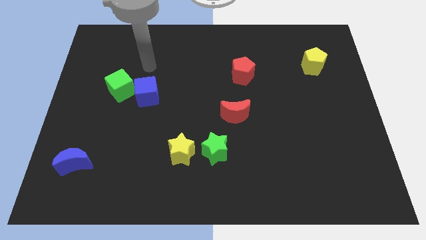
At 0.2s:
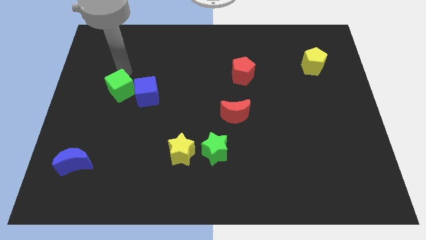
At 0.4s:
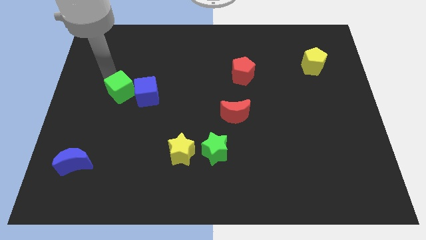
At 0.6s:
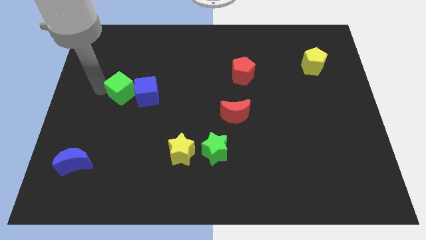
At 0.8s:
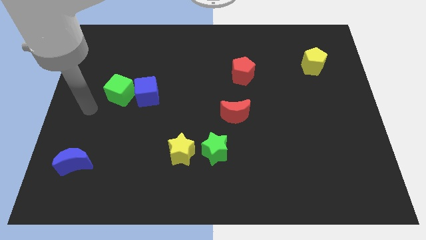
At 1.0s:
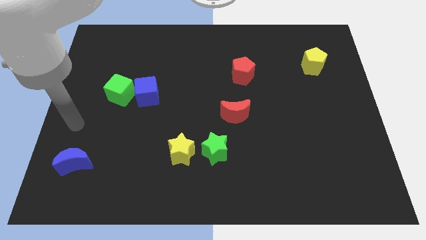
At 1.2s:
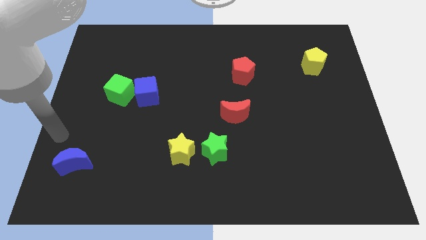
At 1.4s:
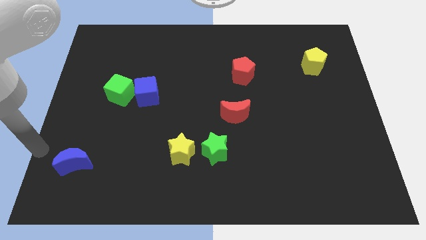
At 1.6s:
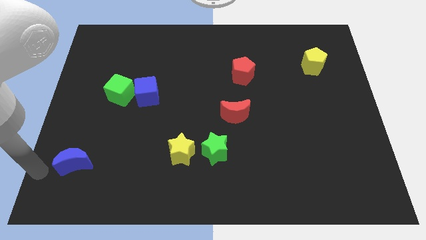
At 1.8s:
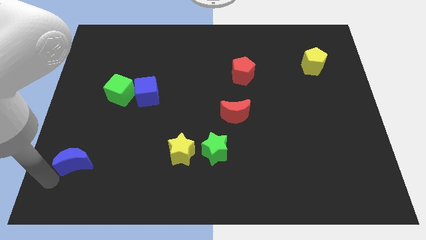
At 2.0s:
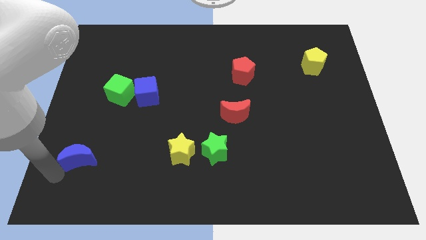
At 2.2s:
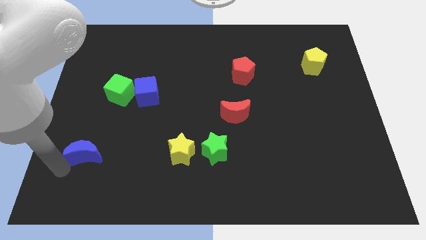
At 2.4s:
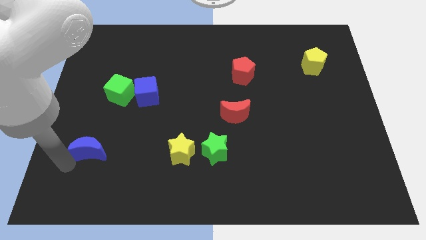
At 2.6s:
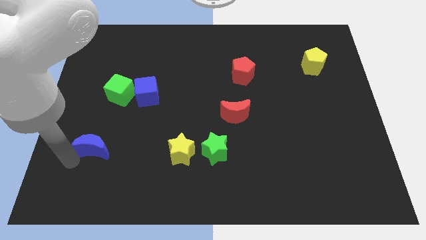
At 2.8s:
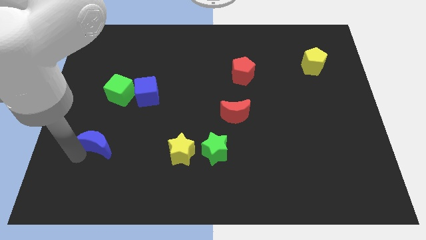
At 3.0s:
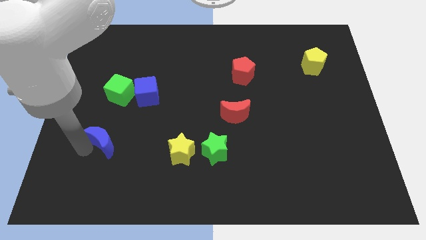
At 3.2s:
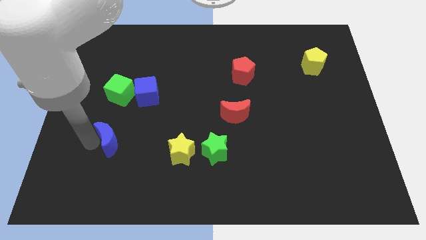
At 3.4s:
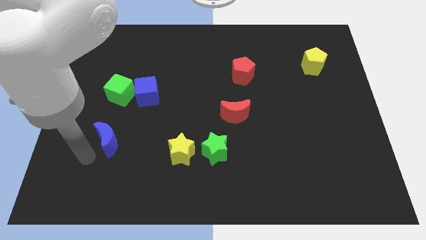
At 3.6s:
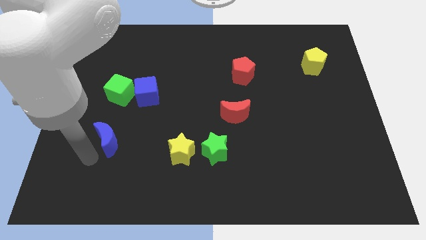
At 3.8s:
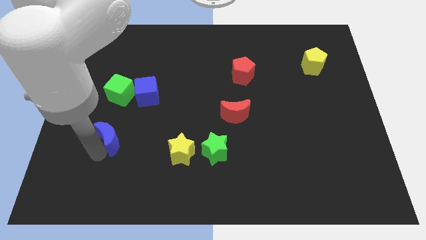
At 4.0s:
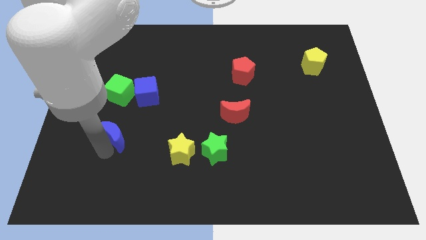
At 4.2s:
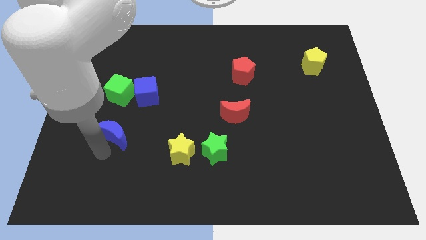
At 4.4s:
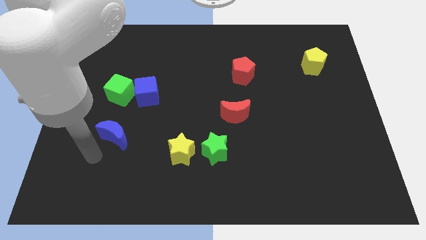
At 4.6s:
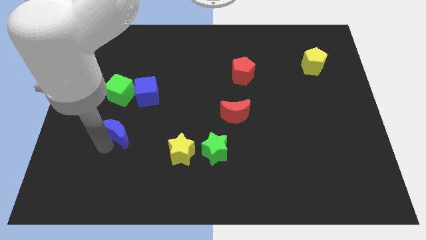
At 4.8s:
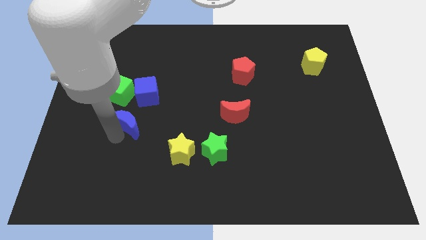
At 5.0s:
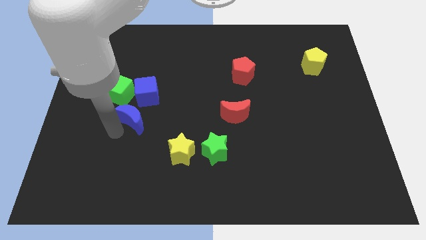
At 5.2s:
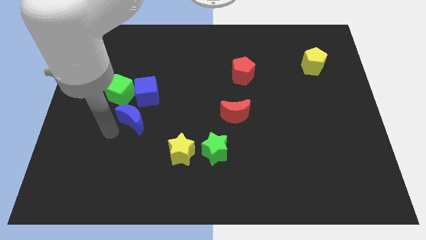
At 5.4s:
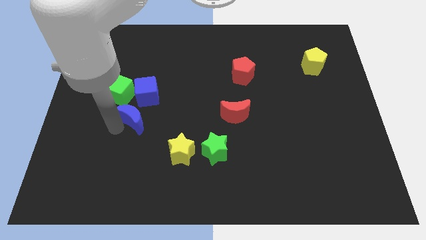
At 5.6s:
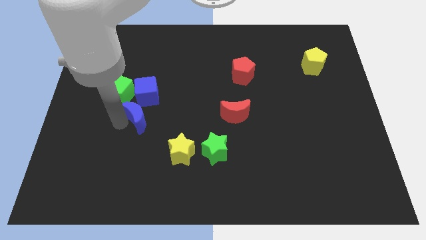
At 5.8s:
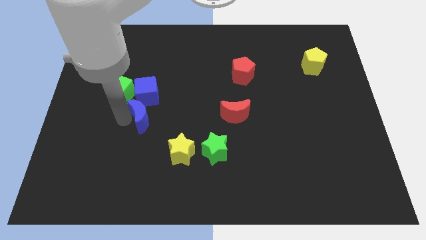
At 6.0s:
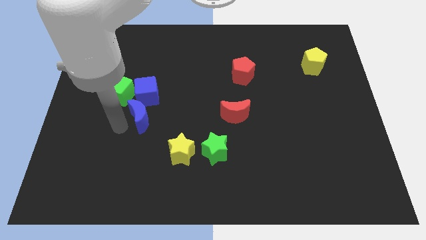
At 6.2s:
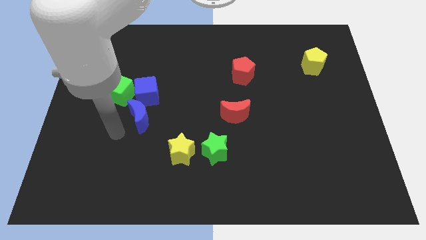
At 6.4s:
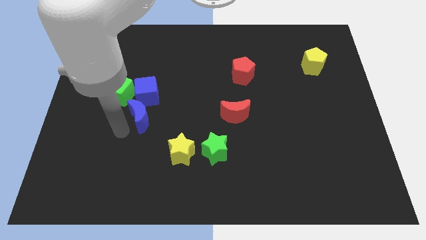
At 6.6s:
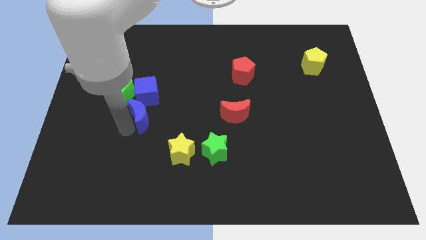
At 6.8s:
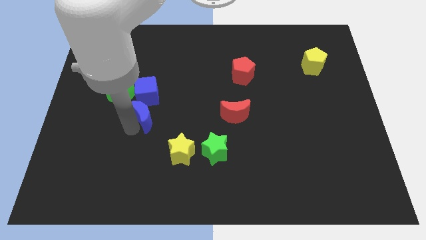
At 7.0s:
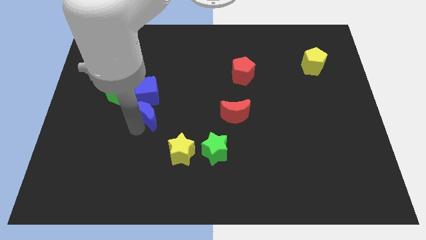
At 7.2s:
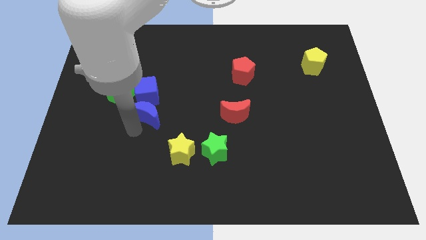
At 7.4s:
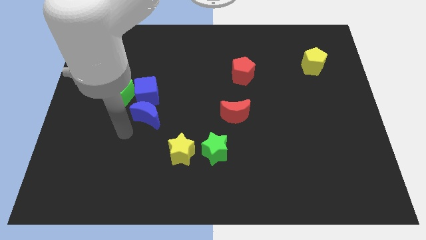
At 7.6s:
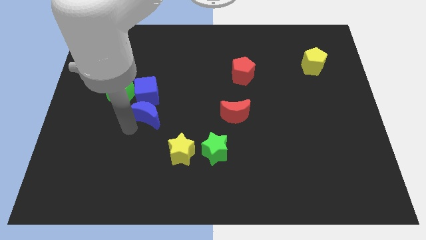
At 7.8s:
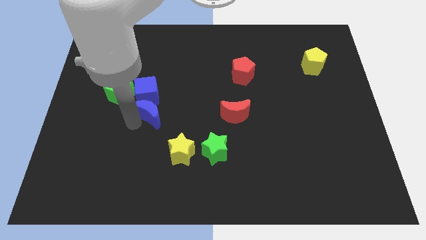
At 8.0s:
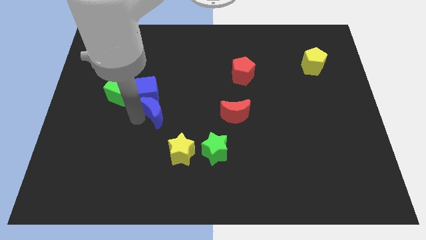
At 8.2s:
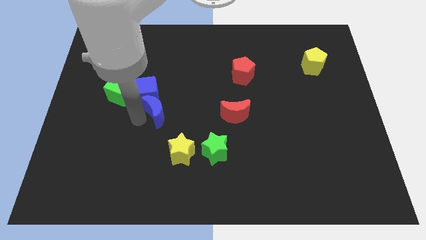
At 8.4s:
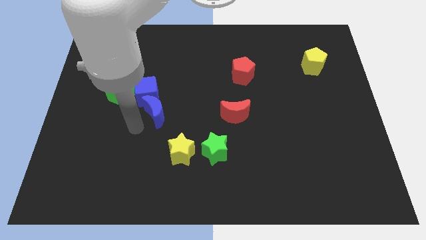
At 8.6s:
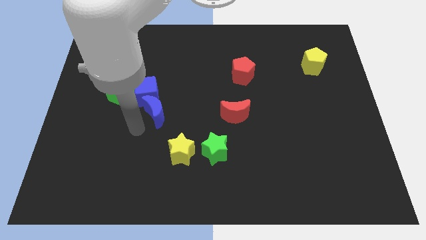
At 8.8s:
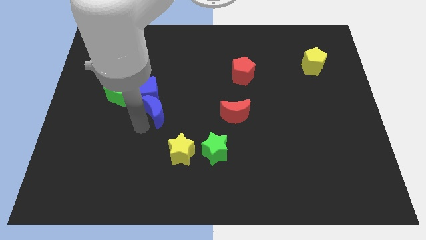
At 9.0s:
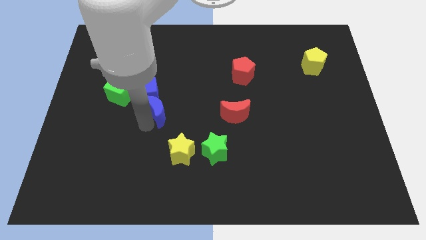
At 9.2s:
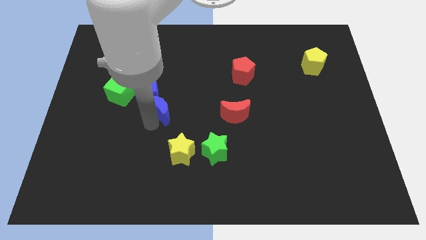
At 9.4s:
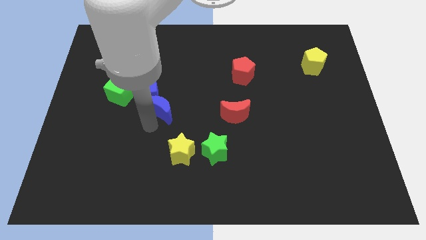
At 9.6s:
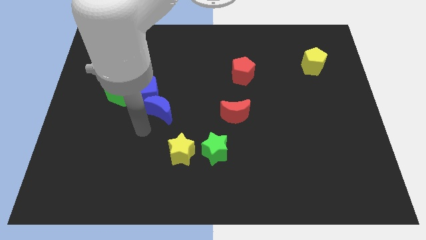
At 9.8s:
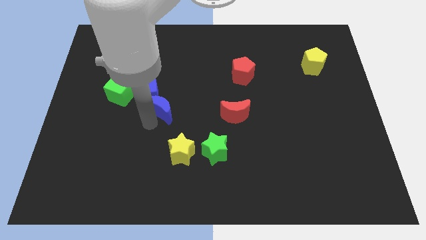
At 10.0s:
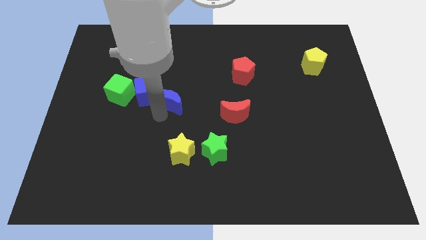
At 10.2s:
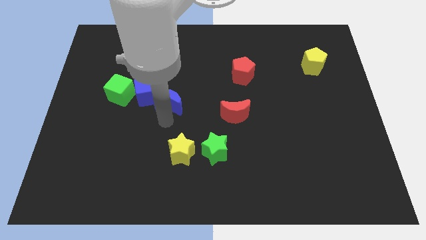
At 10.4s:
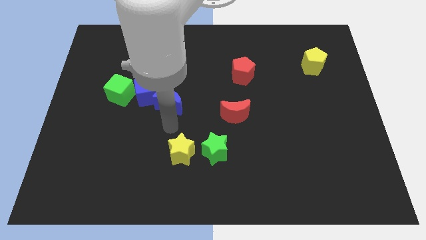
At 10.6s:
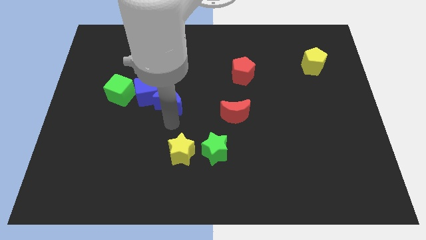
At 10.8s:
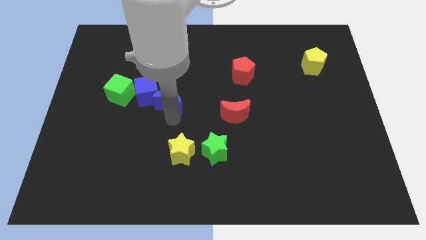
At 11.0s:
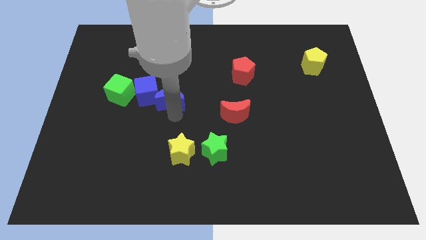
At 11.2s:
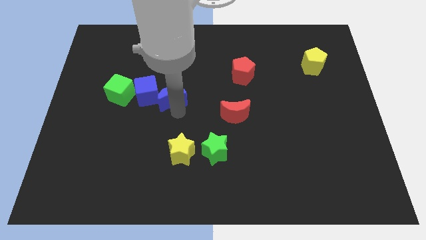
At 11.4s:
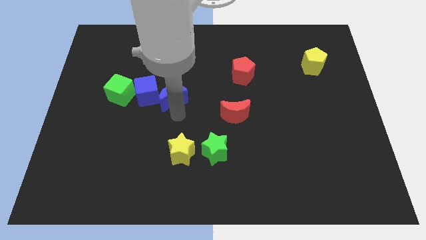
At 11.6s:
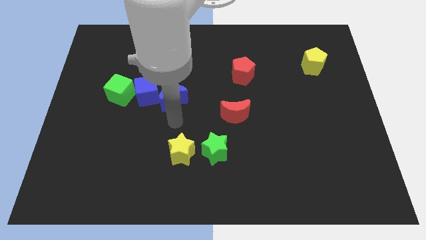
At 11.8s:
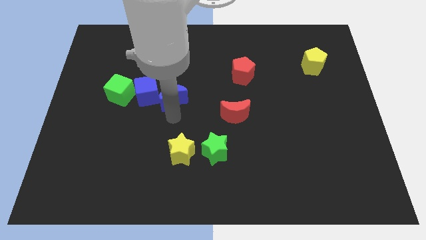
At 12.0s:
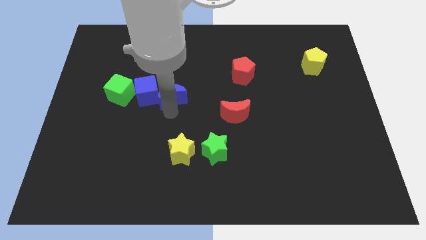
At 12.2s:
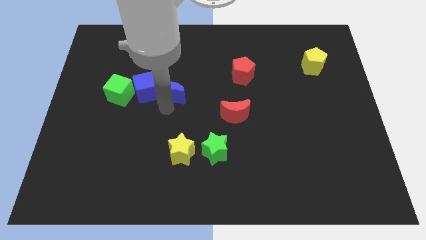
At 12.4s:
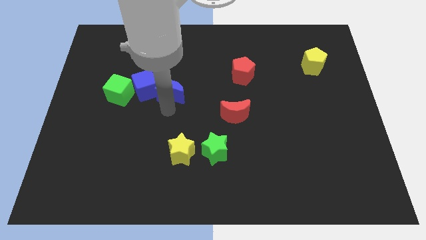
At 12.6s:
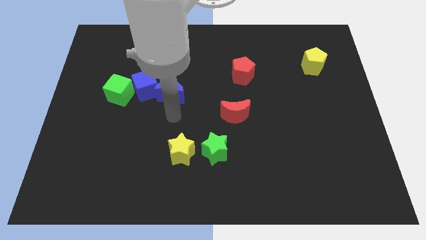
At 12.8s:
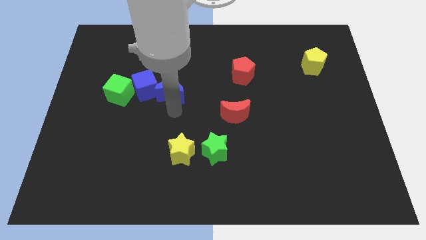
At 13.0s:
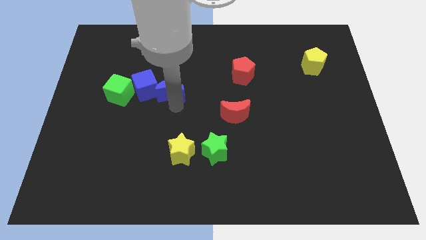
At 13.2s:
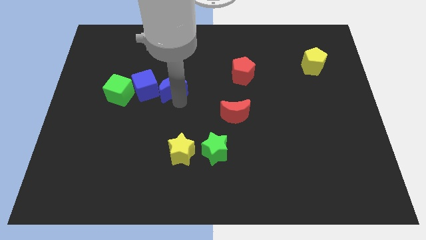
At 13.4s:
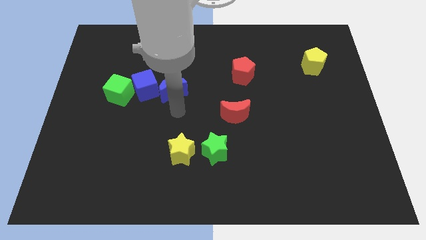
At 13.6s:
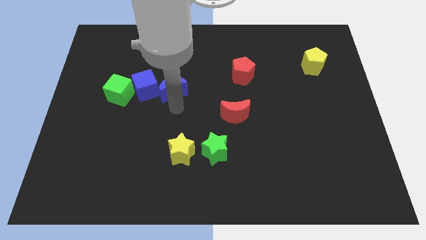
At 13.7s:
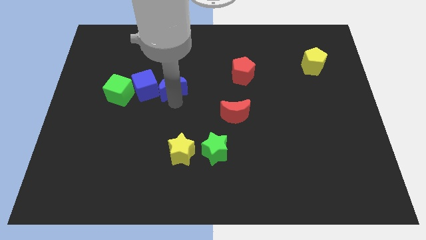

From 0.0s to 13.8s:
push the blue moon to the top right side of the blue cube
